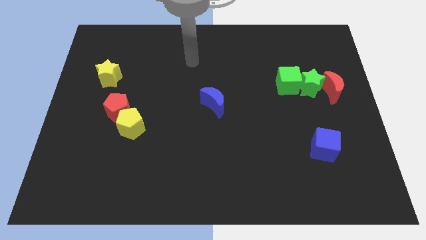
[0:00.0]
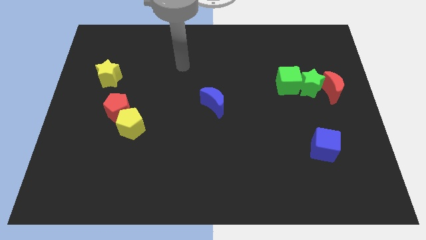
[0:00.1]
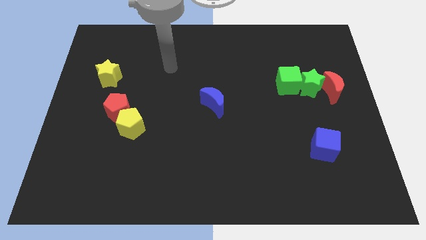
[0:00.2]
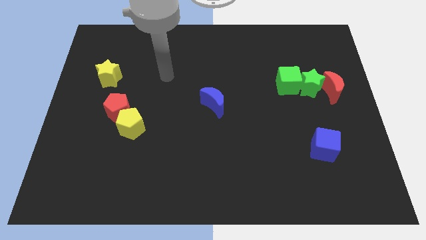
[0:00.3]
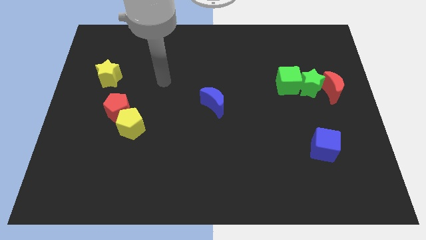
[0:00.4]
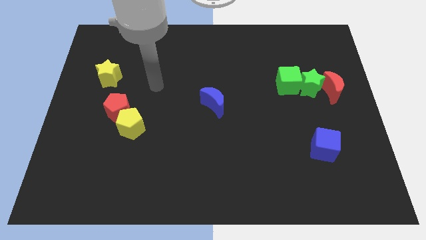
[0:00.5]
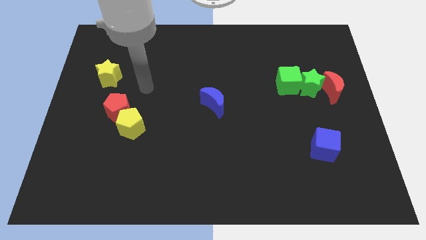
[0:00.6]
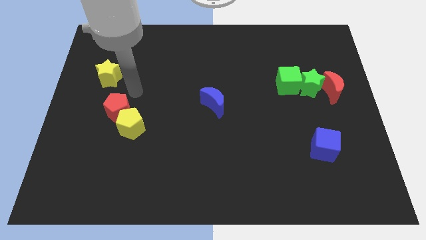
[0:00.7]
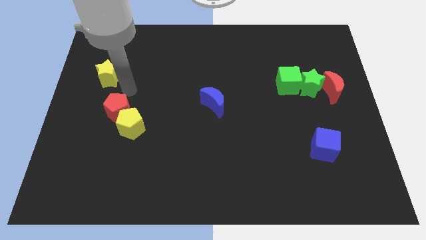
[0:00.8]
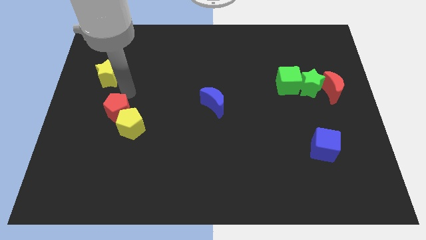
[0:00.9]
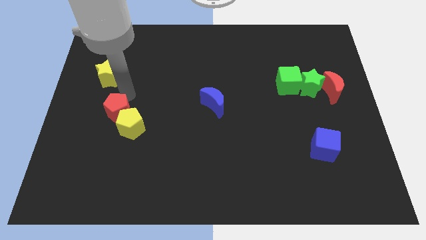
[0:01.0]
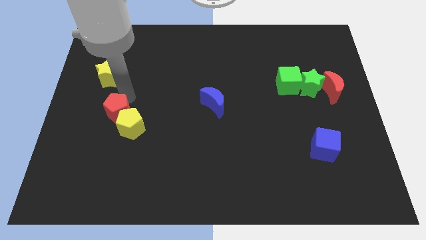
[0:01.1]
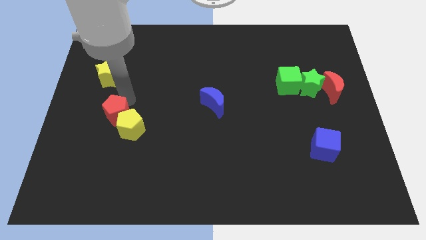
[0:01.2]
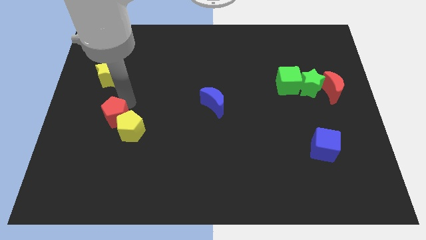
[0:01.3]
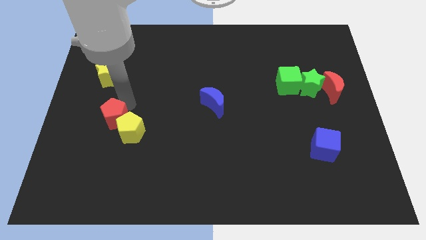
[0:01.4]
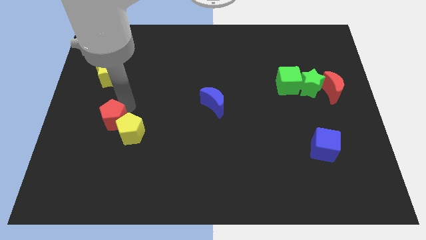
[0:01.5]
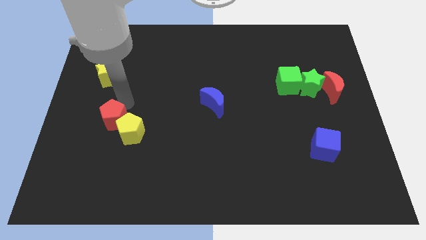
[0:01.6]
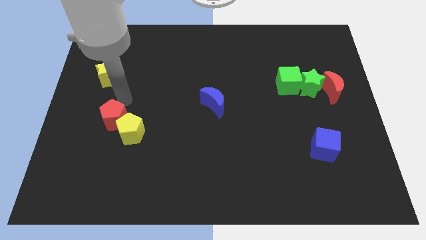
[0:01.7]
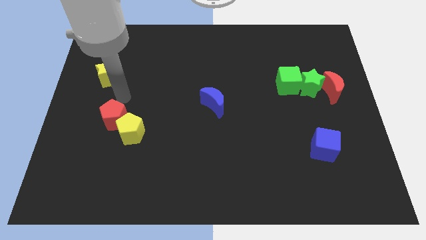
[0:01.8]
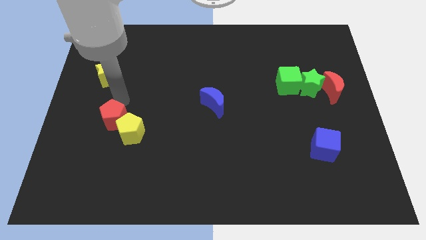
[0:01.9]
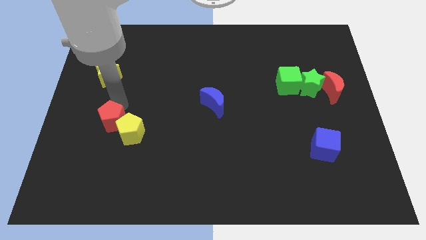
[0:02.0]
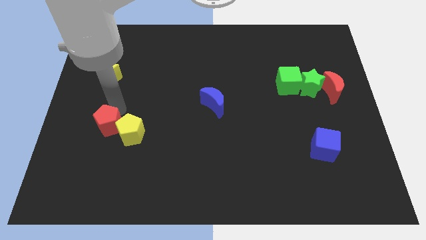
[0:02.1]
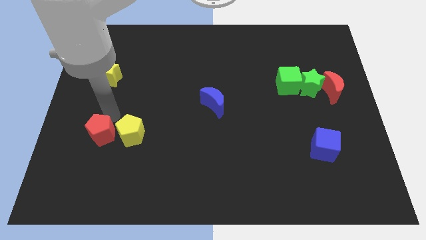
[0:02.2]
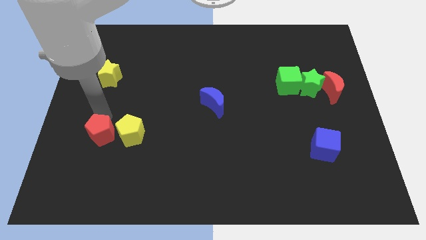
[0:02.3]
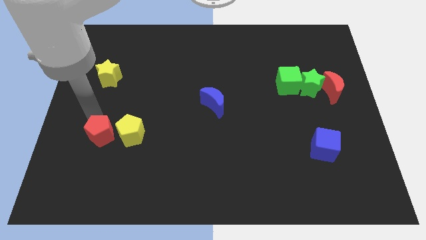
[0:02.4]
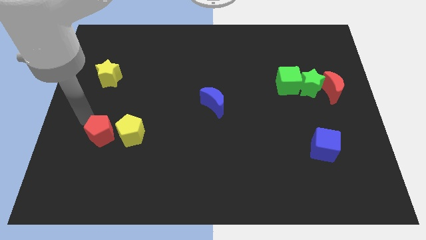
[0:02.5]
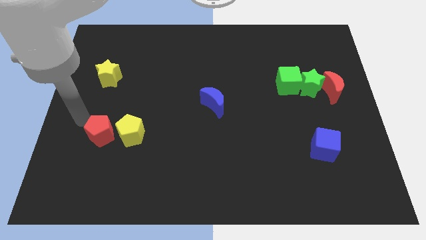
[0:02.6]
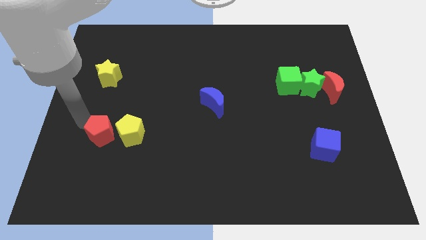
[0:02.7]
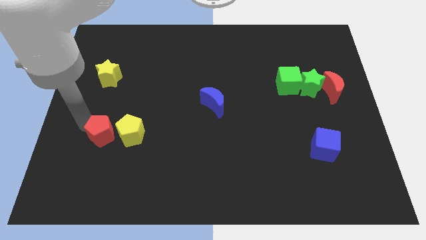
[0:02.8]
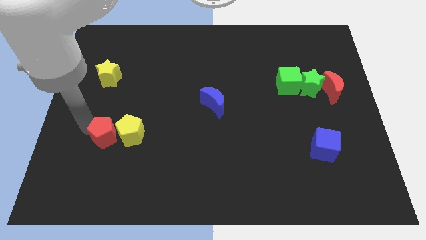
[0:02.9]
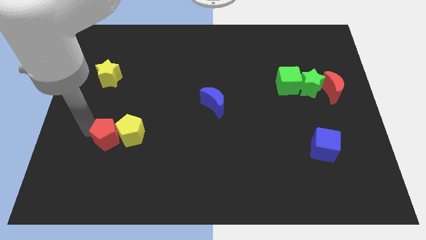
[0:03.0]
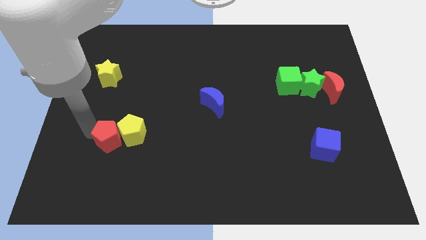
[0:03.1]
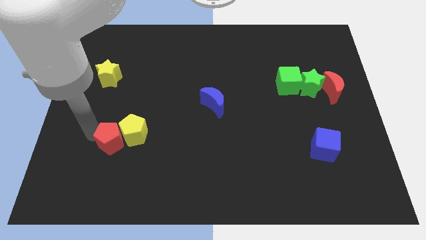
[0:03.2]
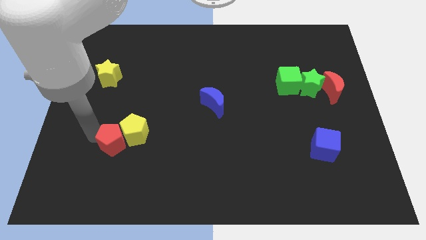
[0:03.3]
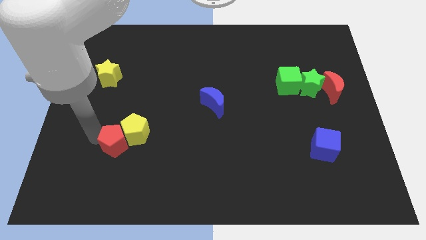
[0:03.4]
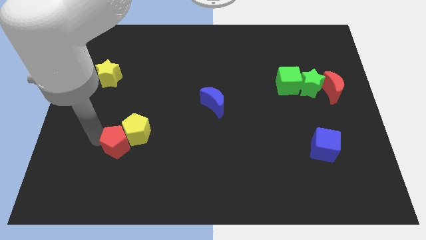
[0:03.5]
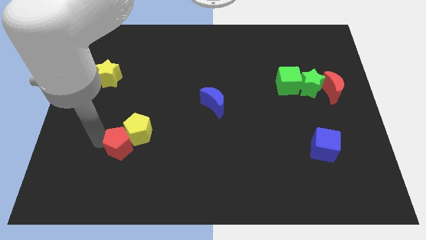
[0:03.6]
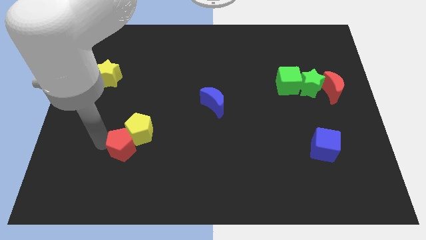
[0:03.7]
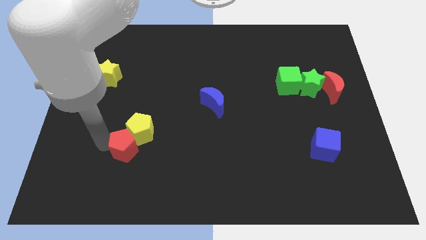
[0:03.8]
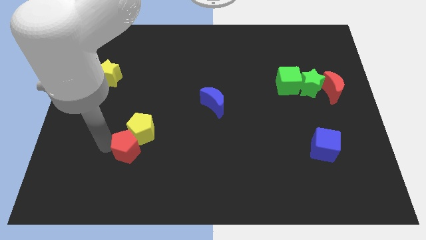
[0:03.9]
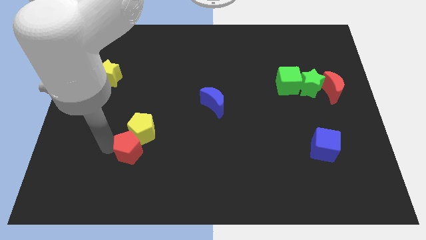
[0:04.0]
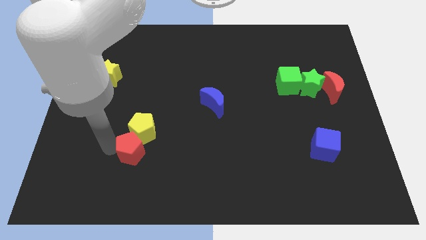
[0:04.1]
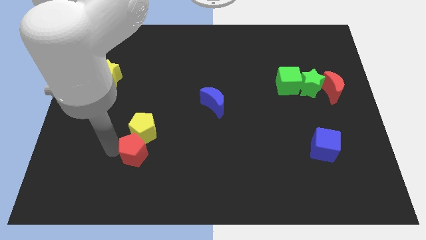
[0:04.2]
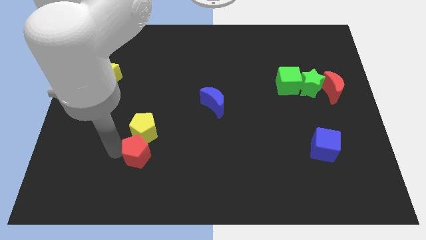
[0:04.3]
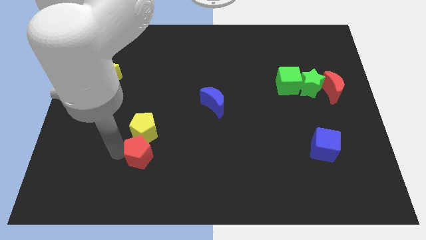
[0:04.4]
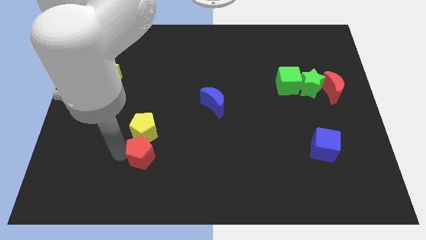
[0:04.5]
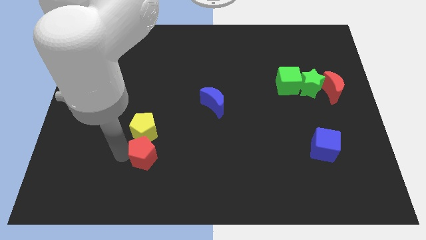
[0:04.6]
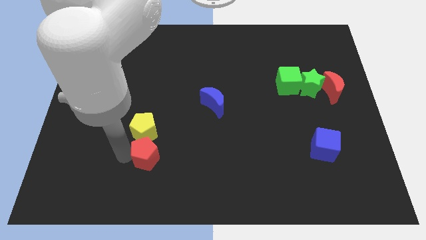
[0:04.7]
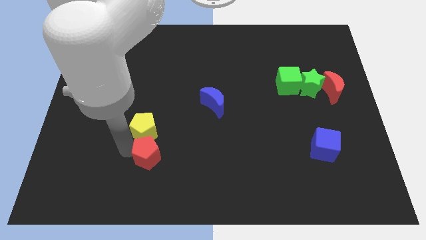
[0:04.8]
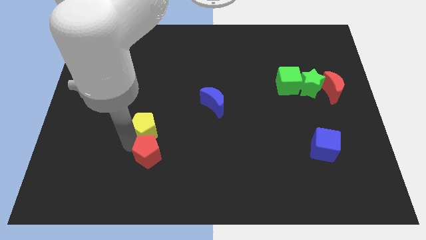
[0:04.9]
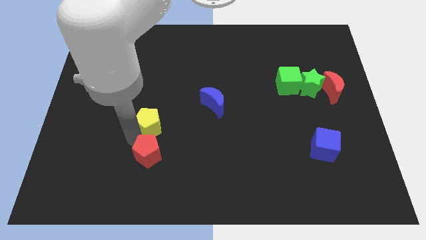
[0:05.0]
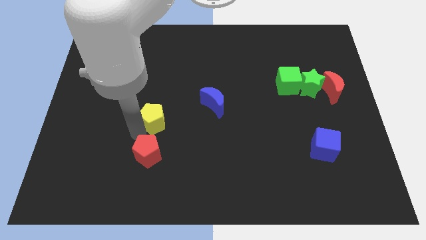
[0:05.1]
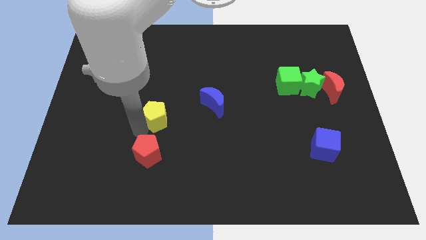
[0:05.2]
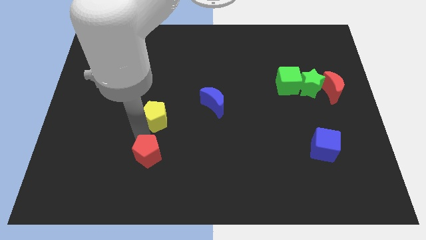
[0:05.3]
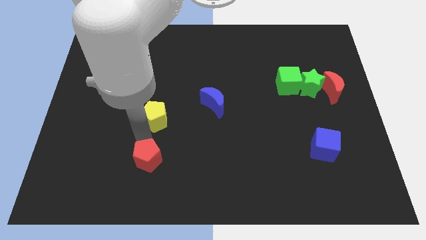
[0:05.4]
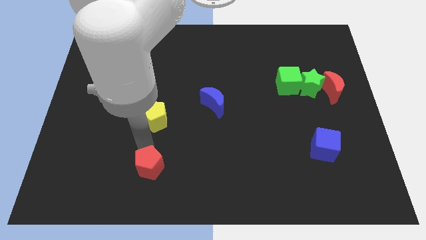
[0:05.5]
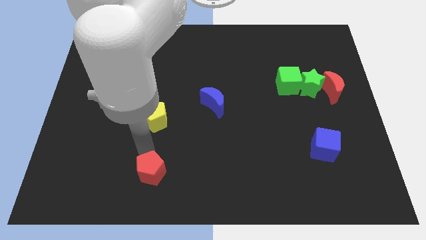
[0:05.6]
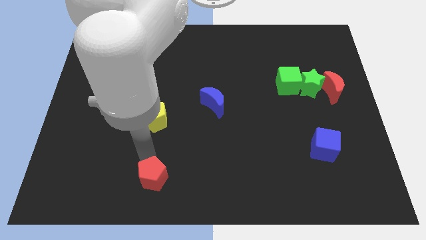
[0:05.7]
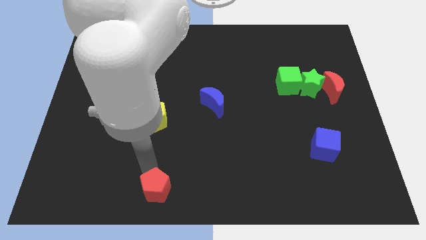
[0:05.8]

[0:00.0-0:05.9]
put the red pentagon to the bottom
